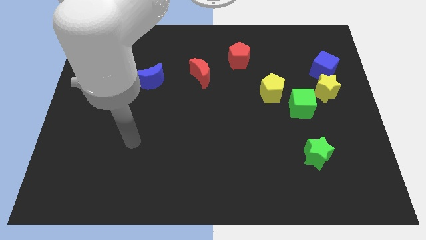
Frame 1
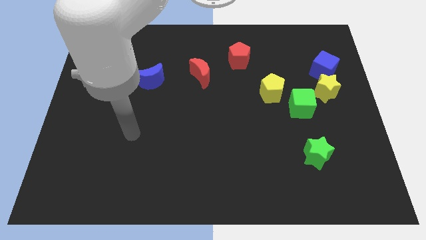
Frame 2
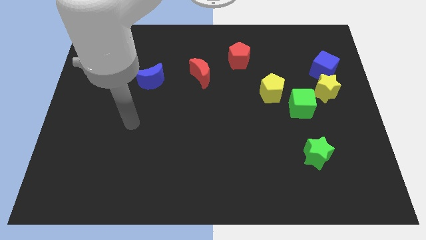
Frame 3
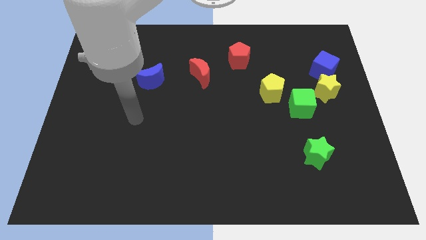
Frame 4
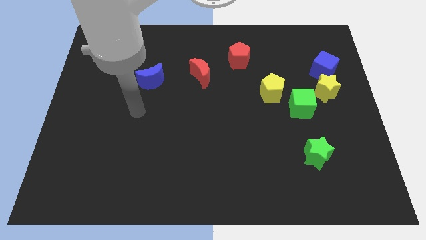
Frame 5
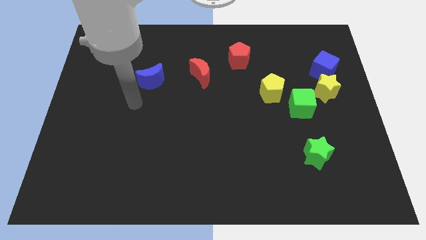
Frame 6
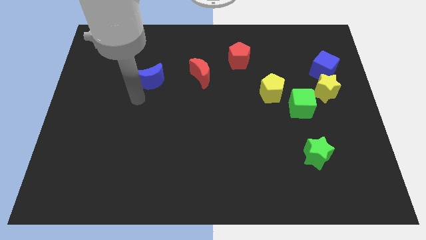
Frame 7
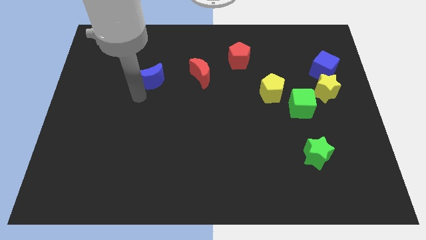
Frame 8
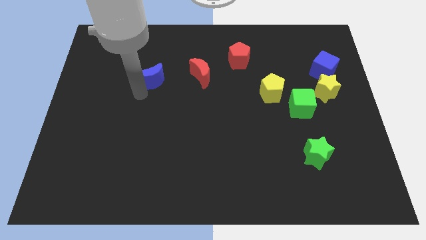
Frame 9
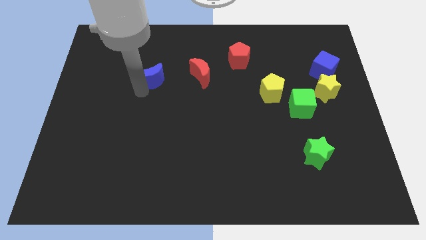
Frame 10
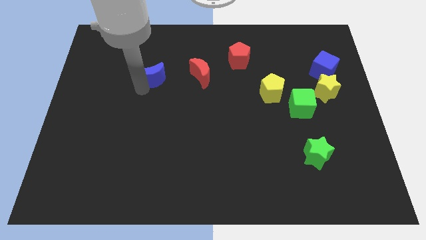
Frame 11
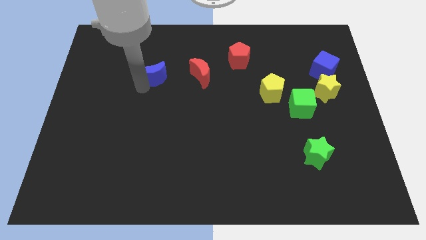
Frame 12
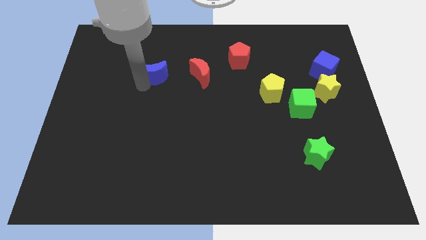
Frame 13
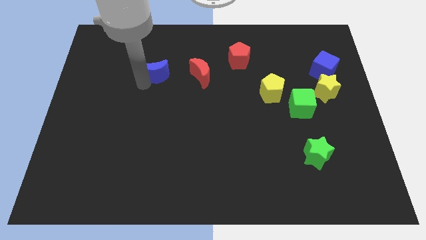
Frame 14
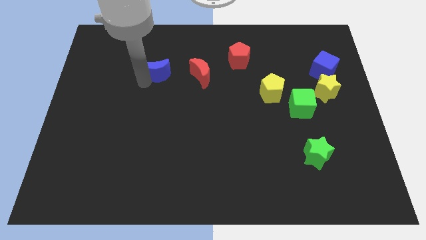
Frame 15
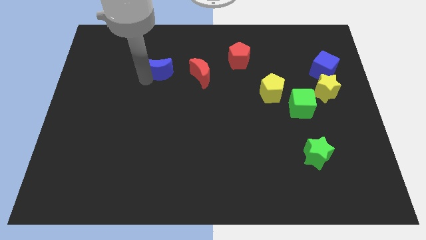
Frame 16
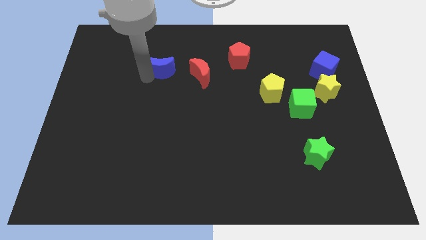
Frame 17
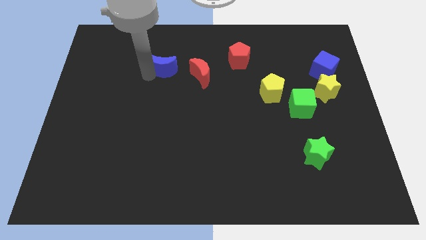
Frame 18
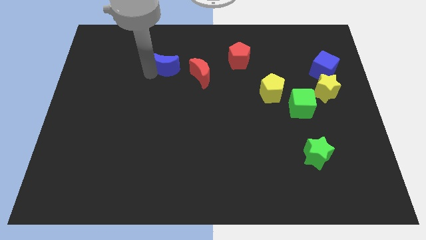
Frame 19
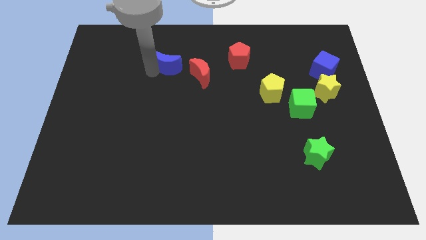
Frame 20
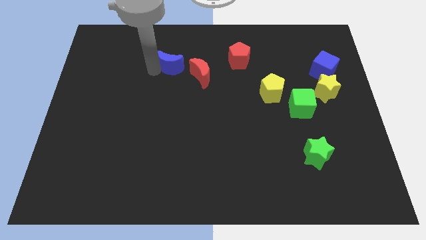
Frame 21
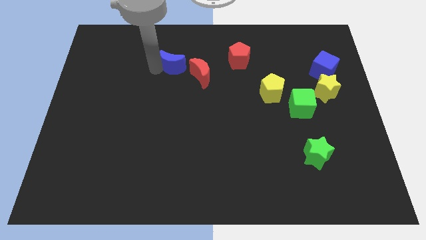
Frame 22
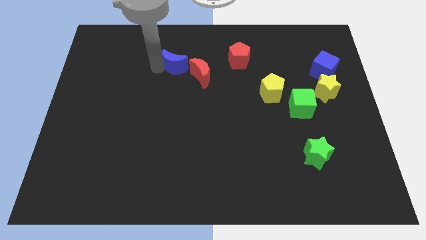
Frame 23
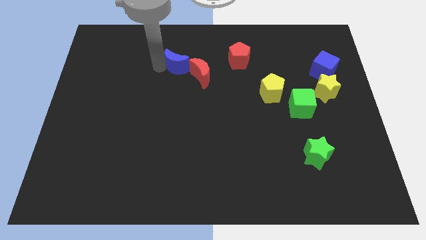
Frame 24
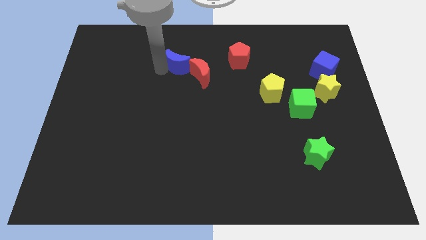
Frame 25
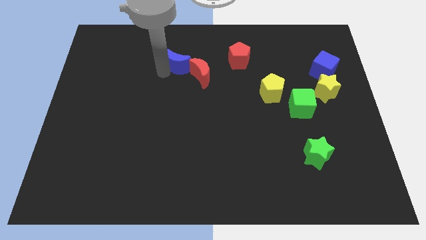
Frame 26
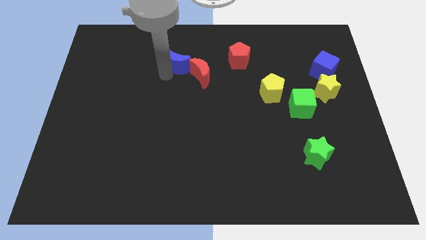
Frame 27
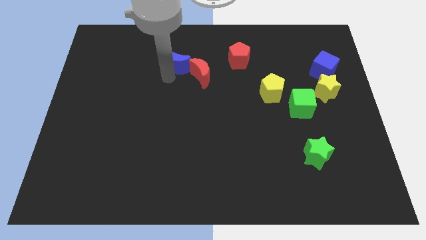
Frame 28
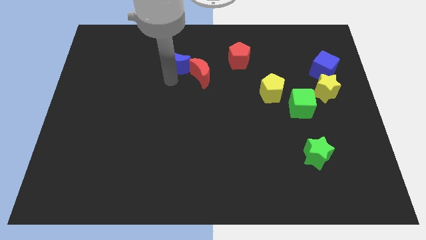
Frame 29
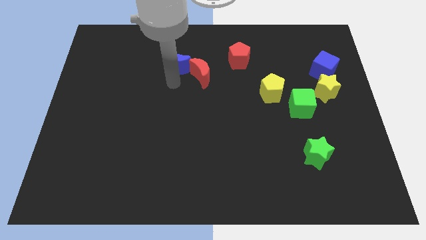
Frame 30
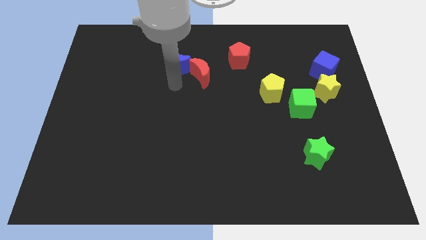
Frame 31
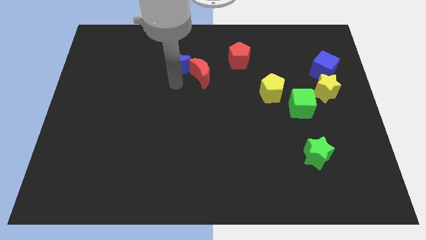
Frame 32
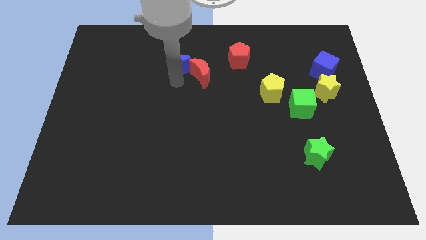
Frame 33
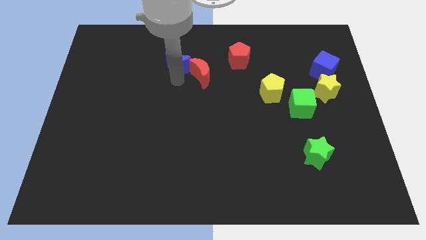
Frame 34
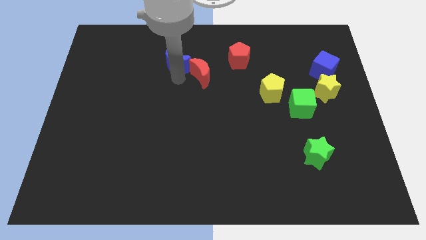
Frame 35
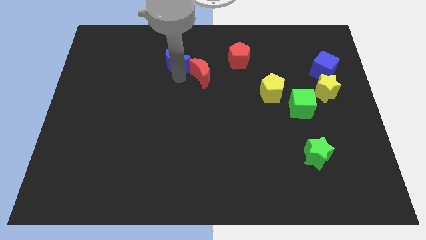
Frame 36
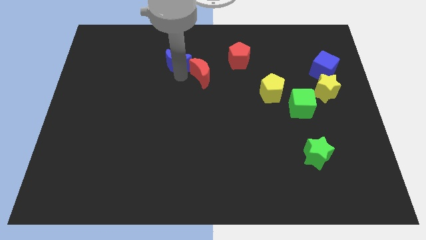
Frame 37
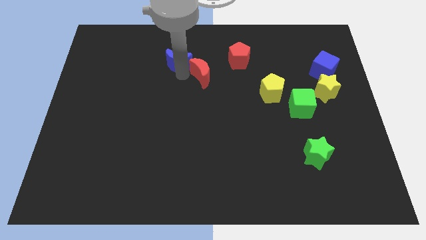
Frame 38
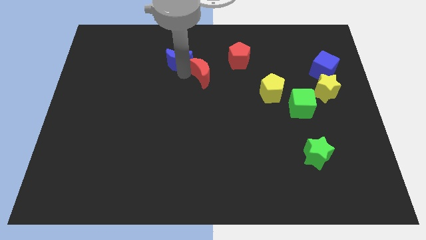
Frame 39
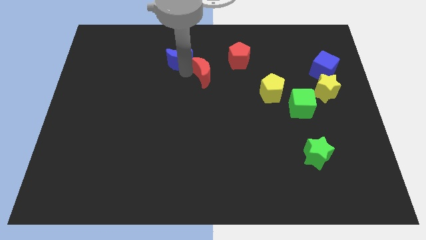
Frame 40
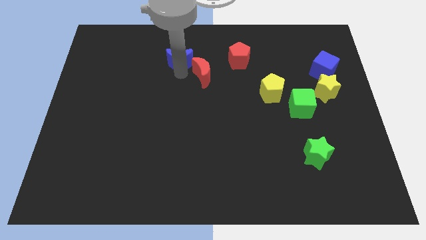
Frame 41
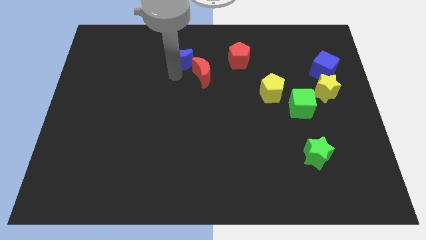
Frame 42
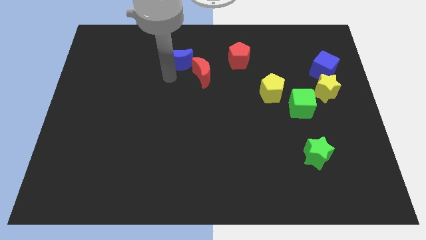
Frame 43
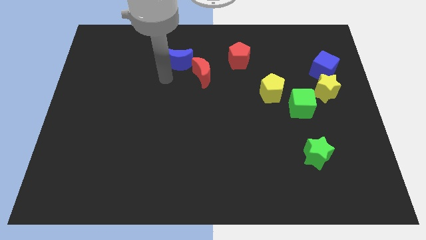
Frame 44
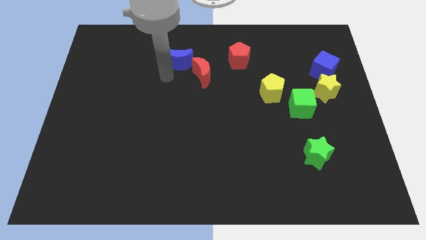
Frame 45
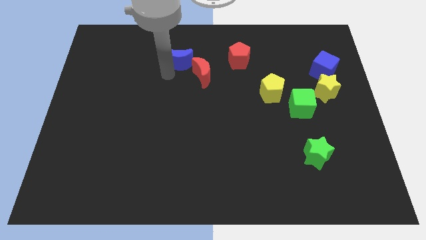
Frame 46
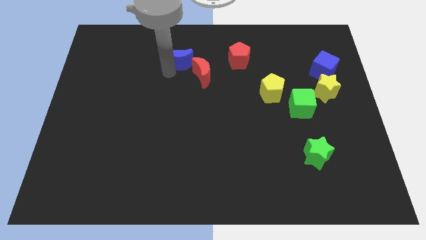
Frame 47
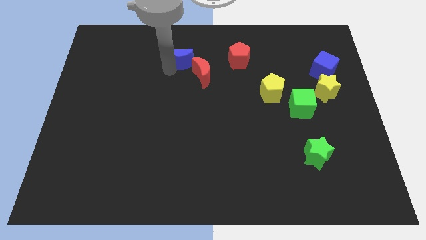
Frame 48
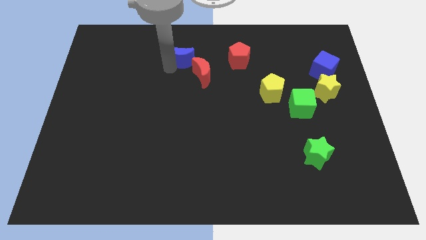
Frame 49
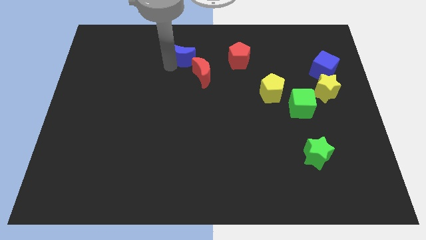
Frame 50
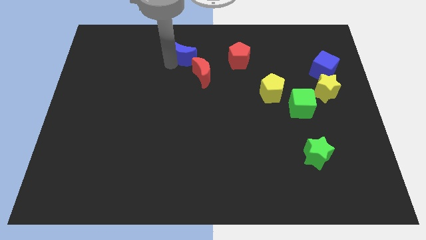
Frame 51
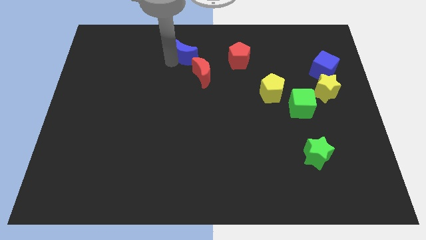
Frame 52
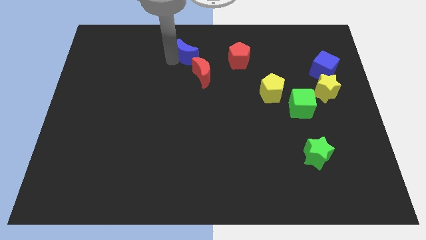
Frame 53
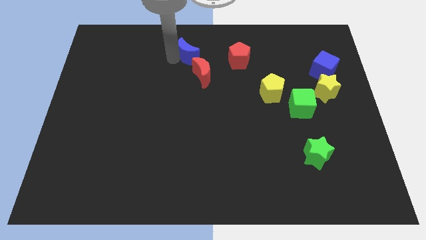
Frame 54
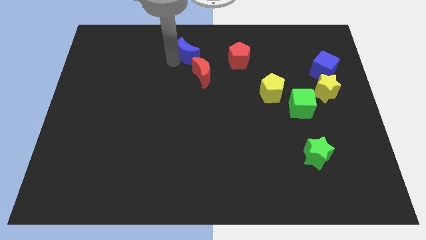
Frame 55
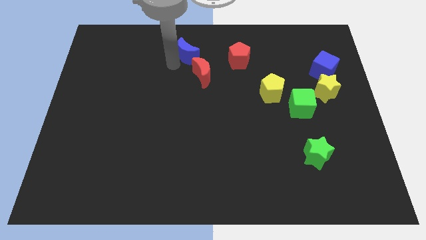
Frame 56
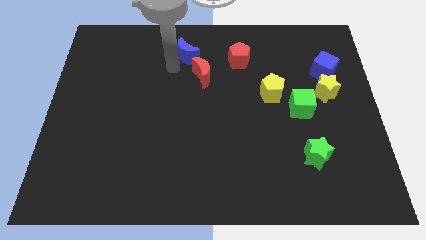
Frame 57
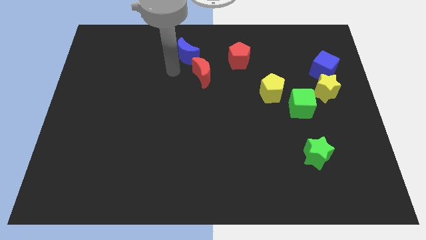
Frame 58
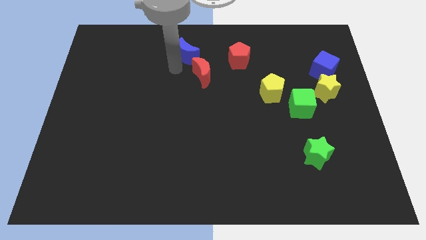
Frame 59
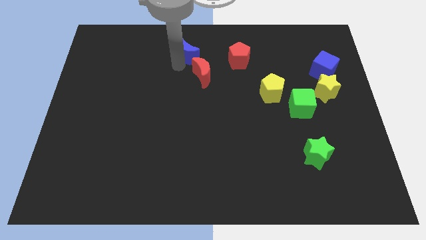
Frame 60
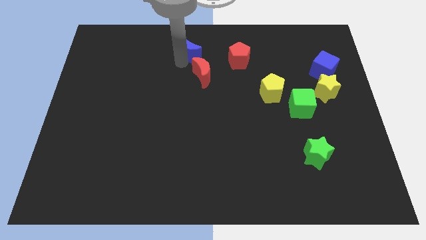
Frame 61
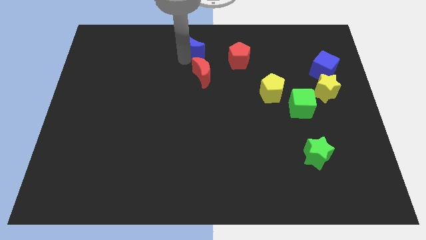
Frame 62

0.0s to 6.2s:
move the blue moon to the top side

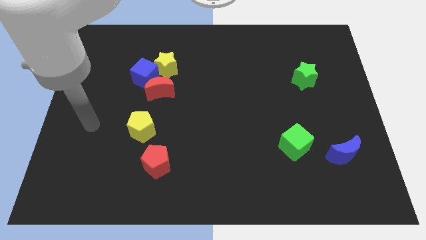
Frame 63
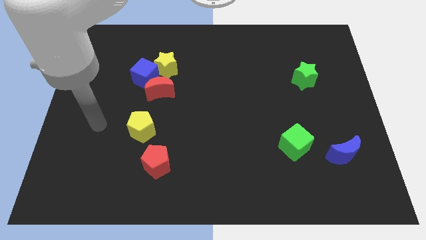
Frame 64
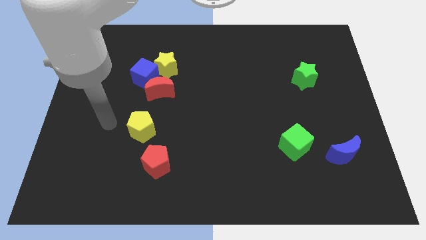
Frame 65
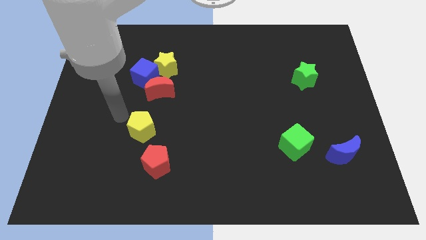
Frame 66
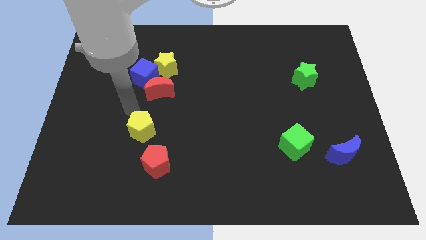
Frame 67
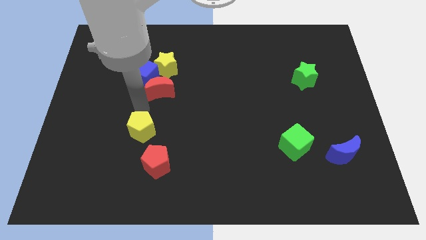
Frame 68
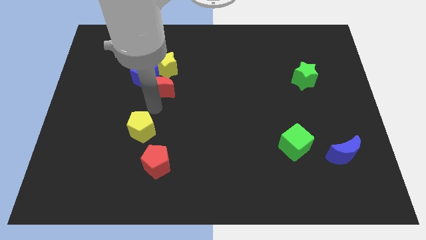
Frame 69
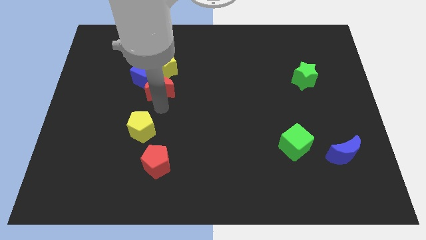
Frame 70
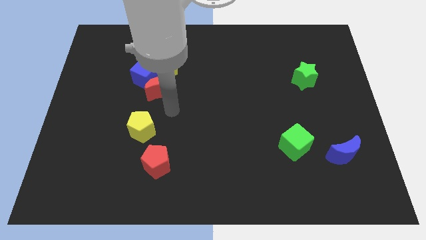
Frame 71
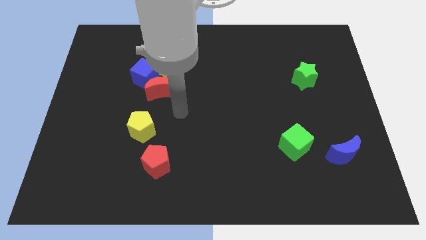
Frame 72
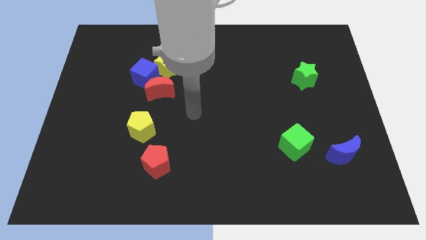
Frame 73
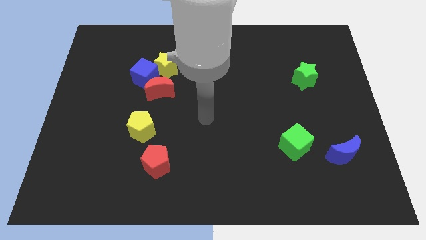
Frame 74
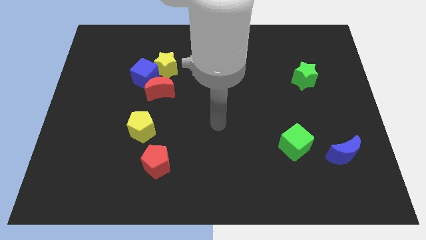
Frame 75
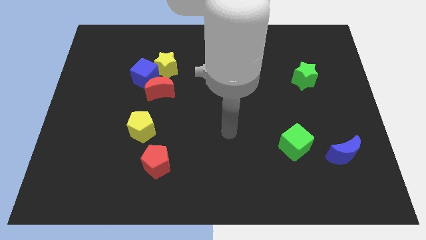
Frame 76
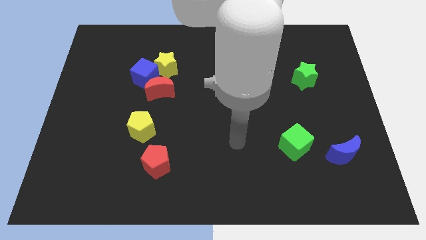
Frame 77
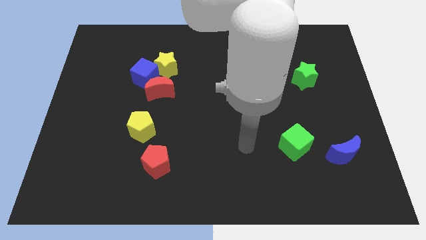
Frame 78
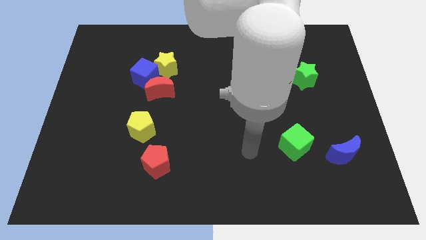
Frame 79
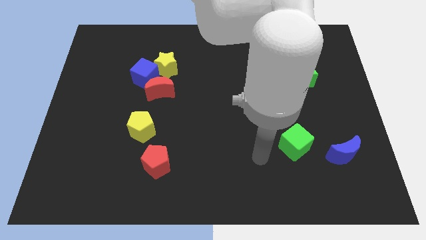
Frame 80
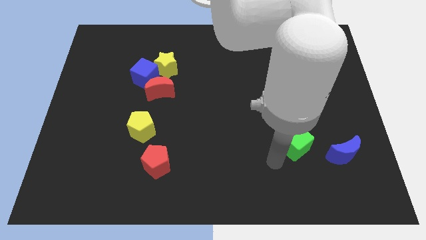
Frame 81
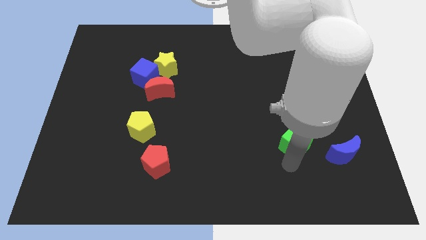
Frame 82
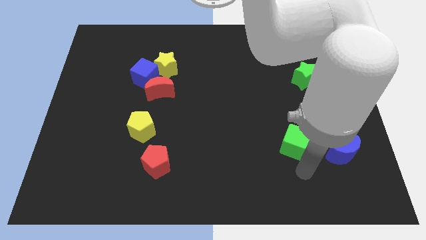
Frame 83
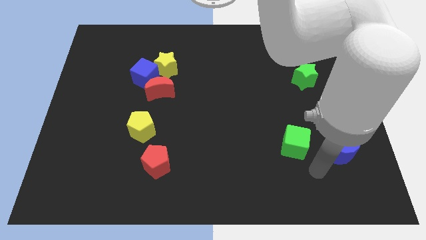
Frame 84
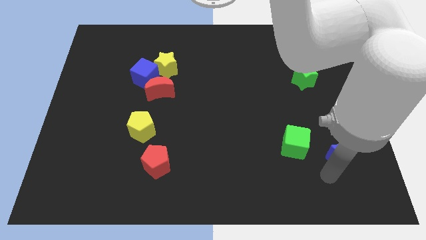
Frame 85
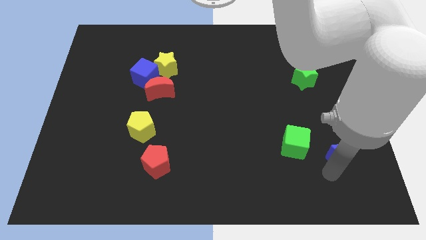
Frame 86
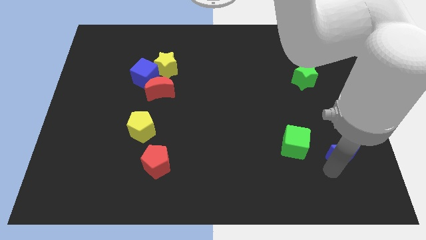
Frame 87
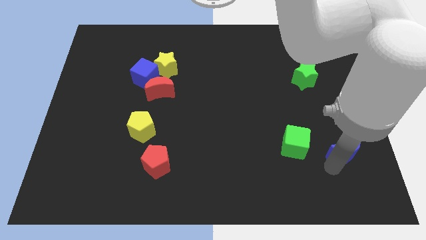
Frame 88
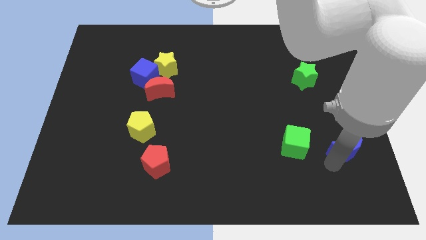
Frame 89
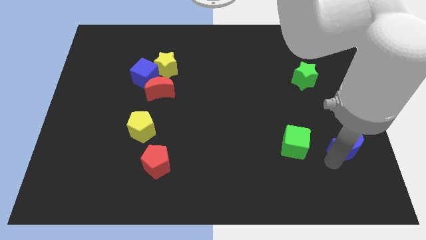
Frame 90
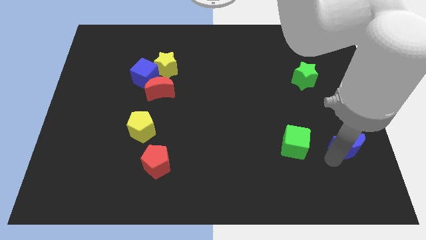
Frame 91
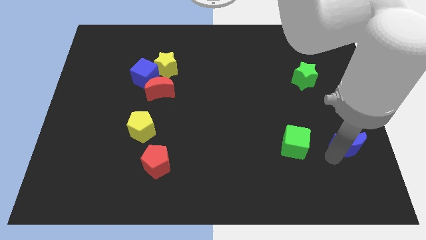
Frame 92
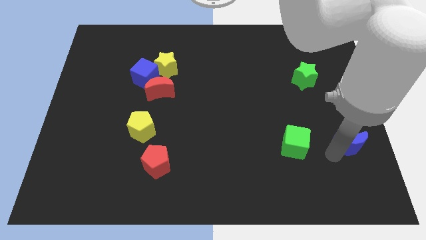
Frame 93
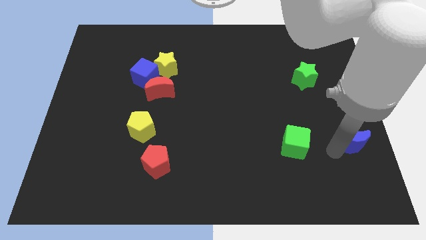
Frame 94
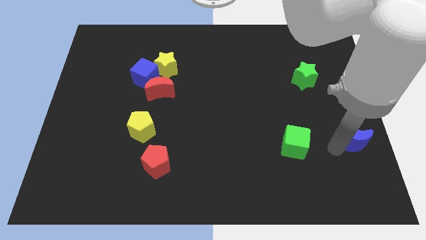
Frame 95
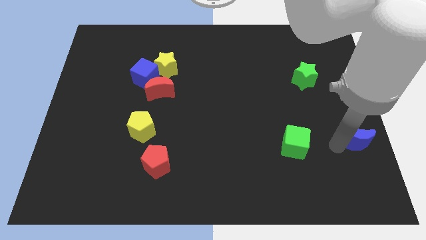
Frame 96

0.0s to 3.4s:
put the blue moon to the center right
